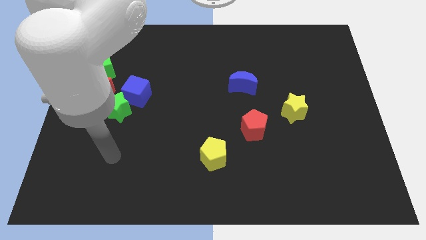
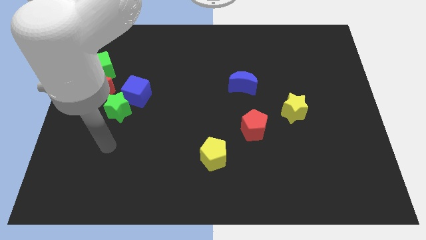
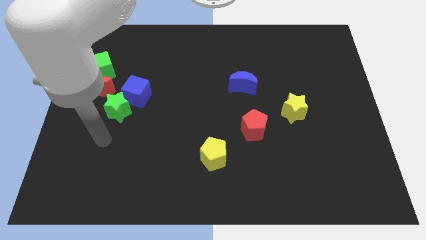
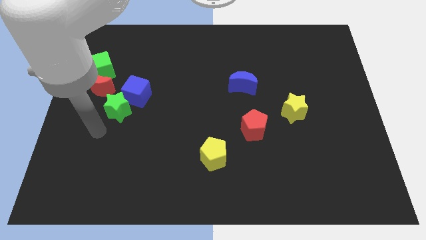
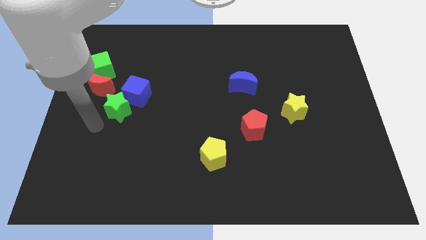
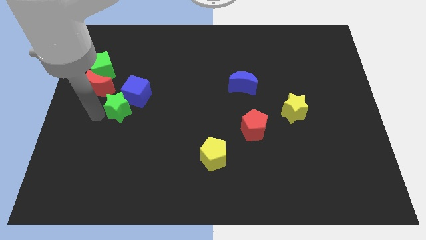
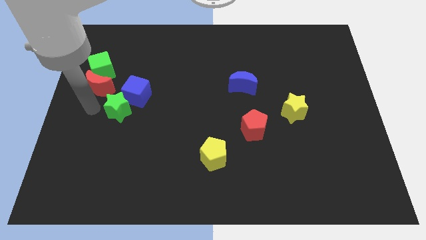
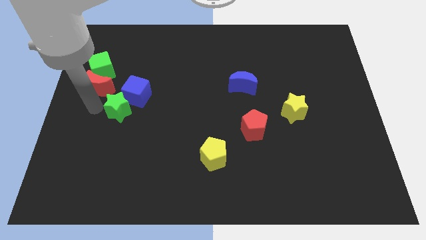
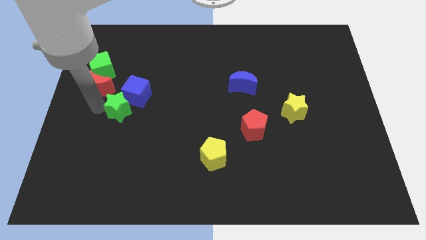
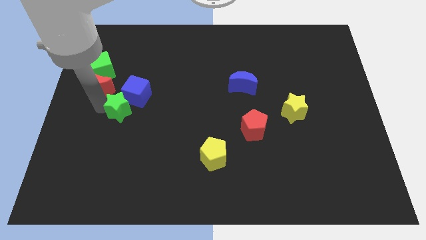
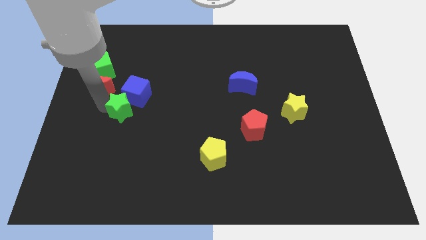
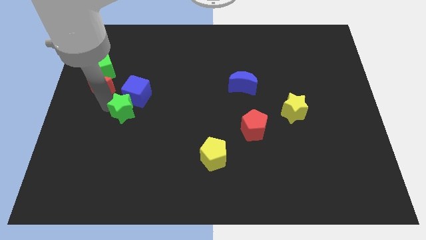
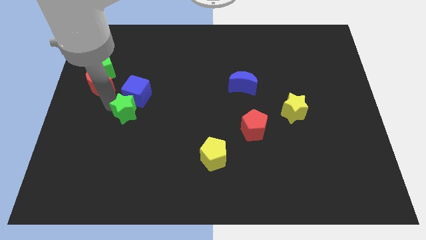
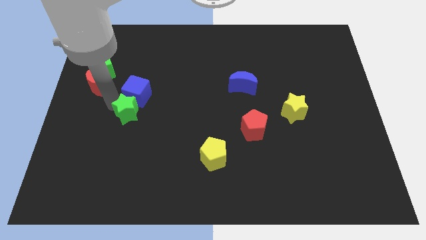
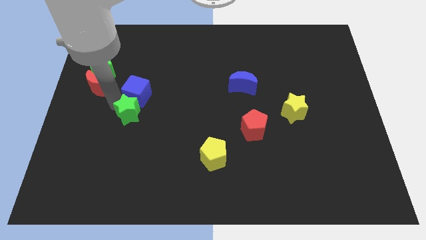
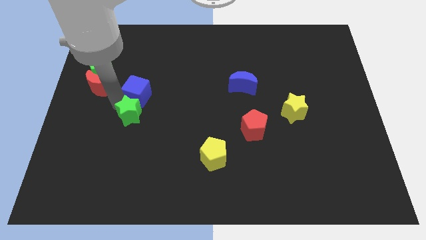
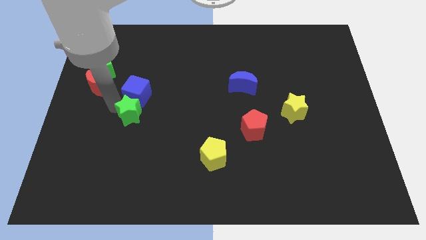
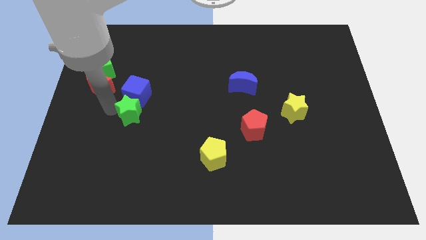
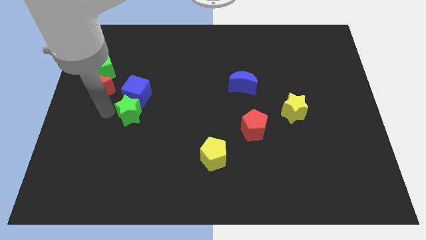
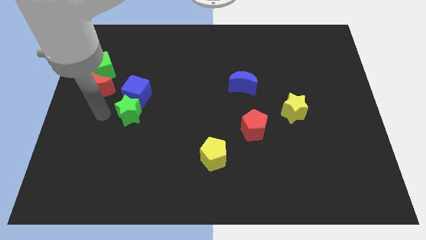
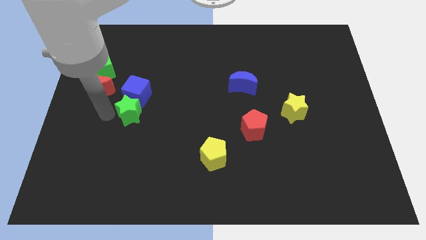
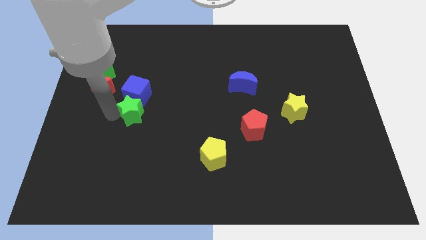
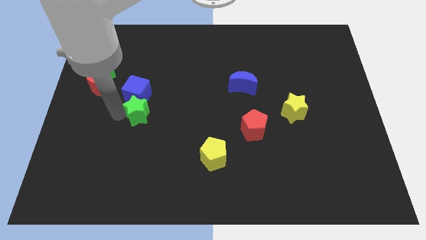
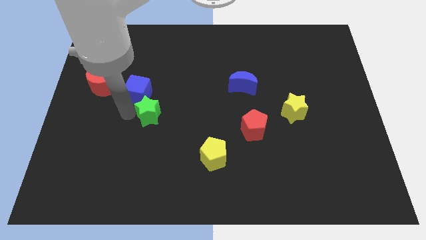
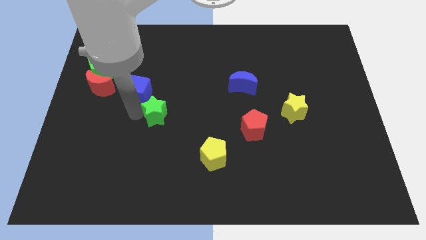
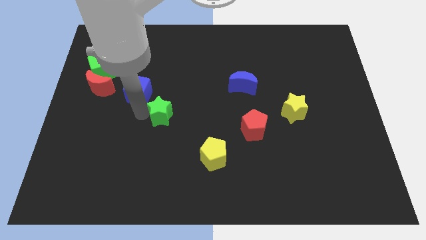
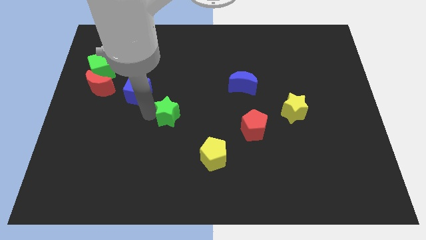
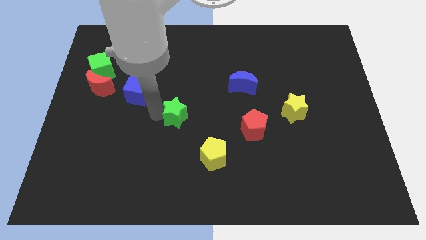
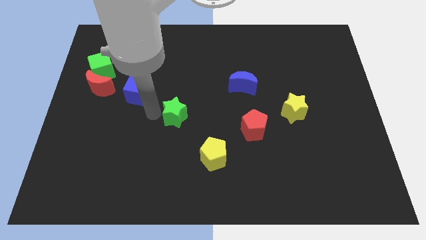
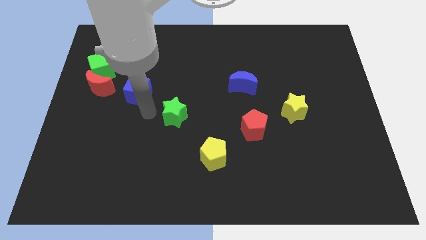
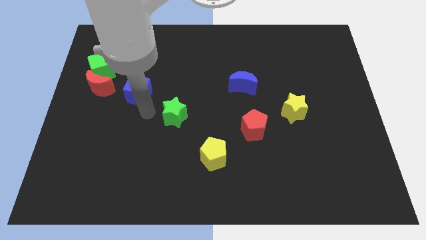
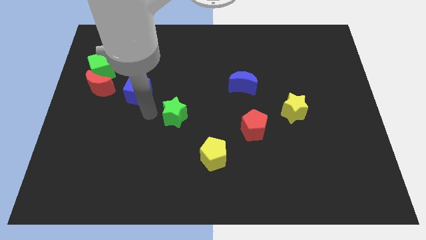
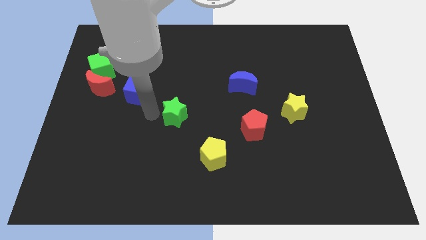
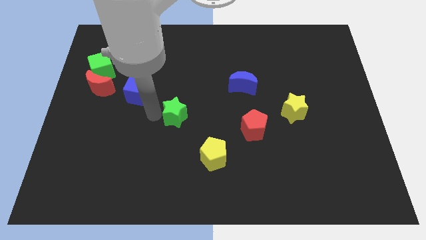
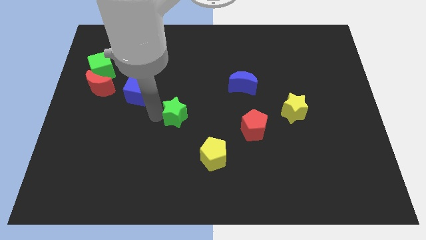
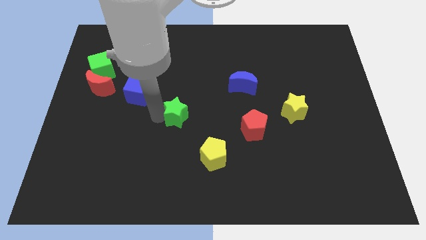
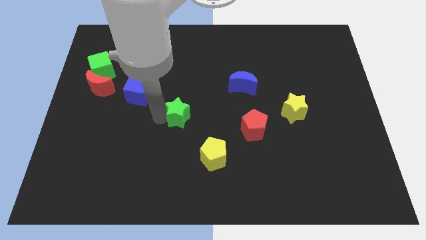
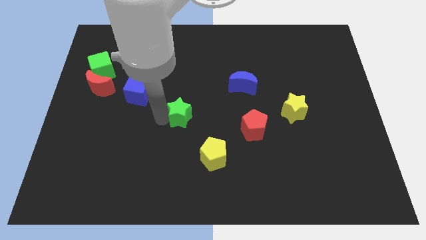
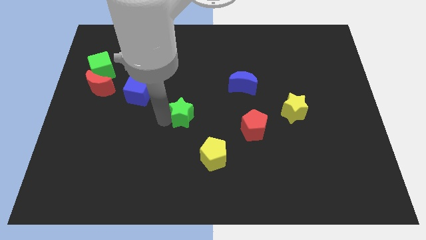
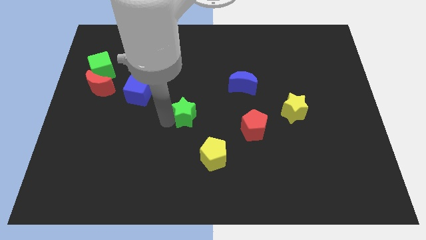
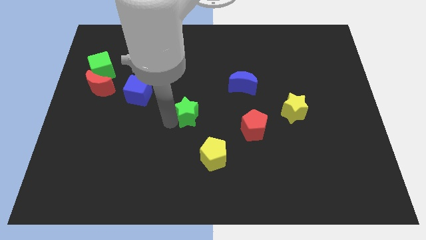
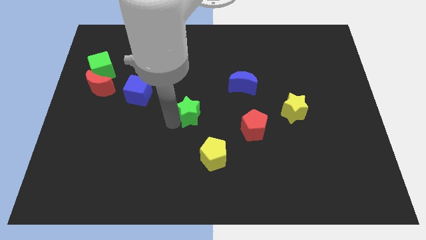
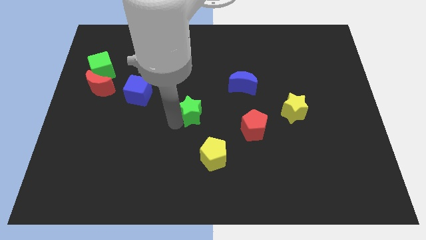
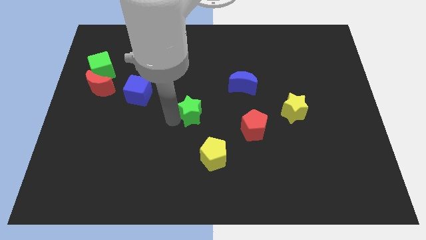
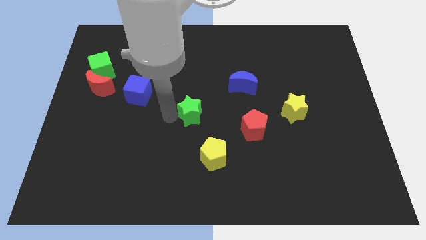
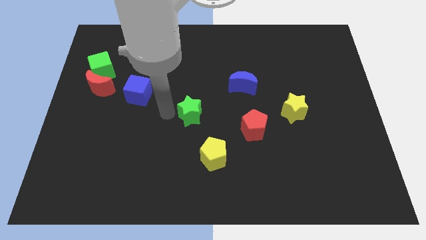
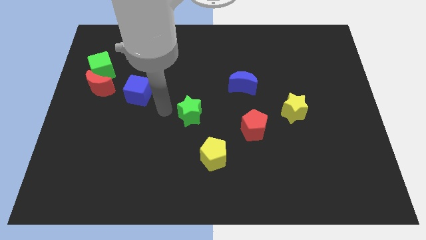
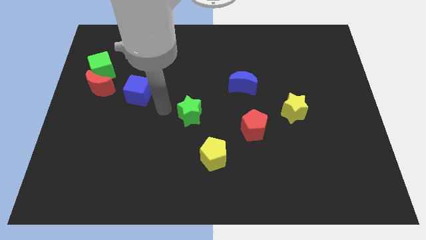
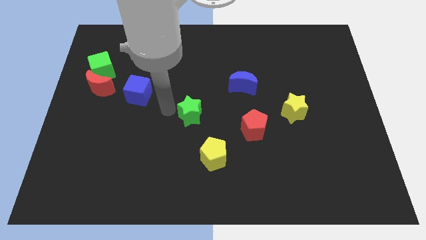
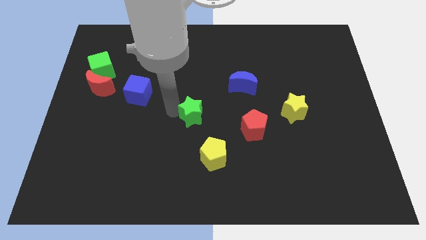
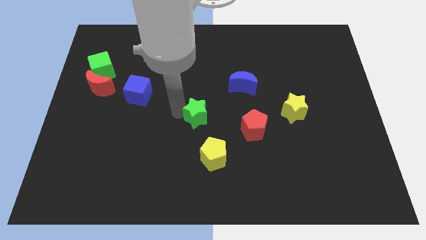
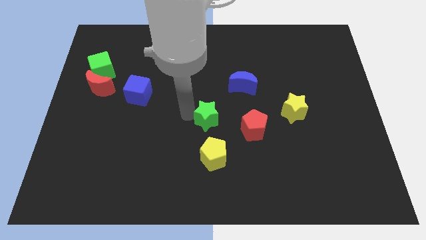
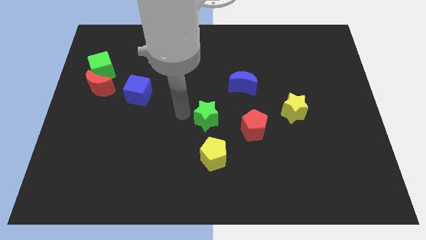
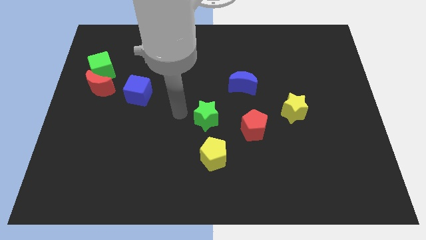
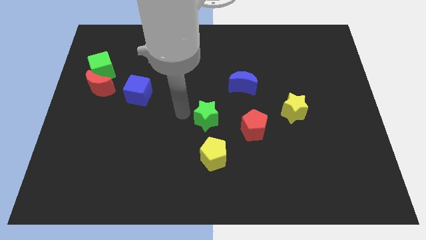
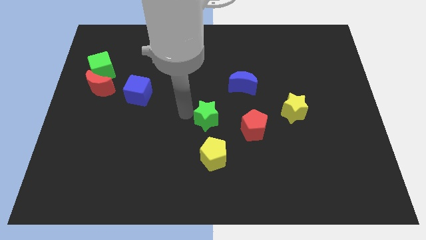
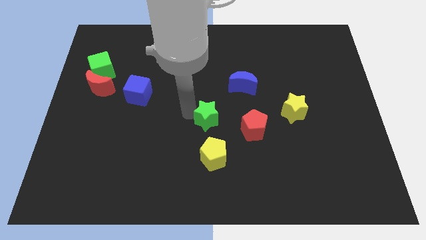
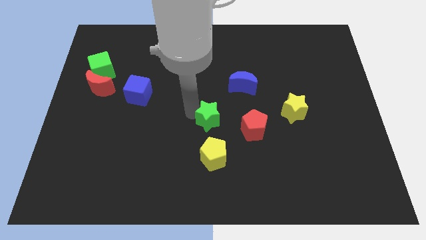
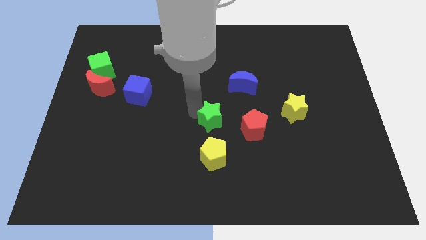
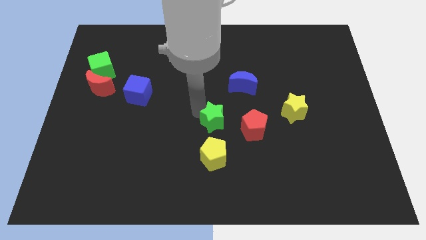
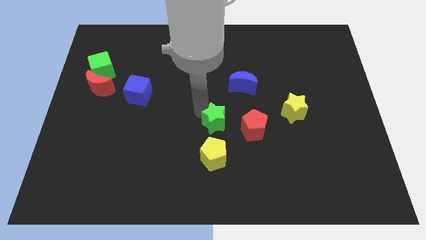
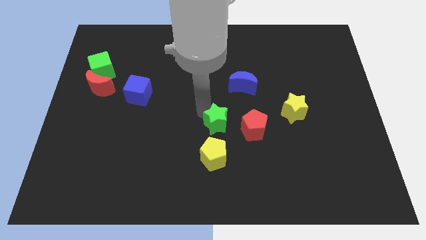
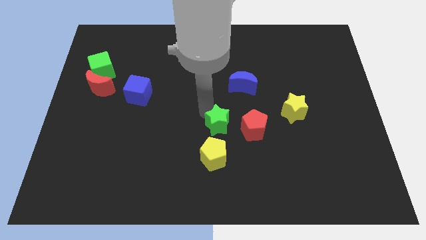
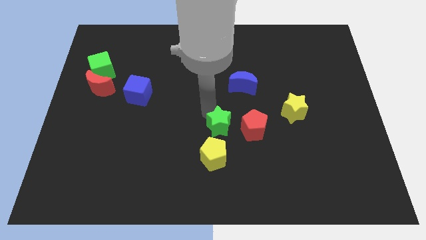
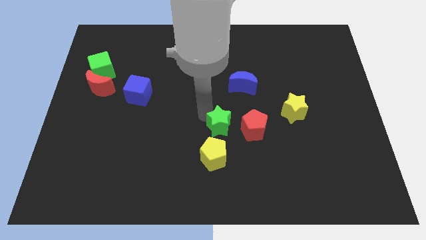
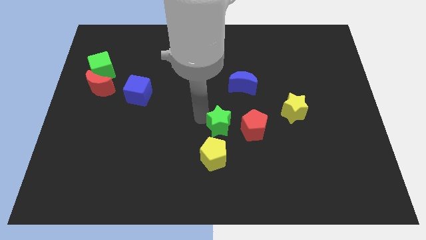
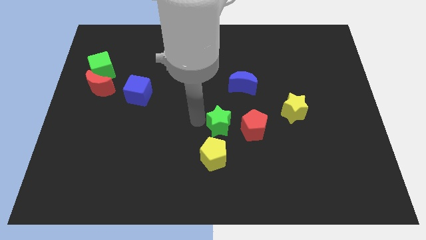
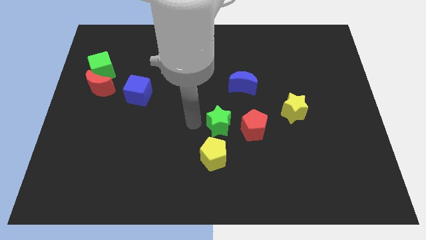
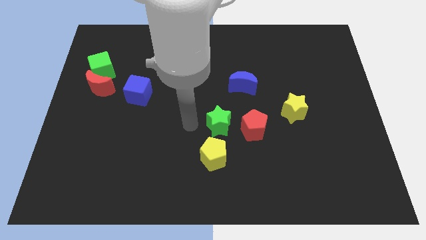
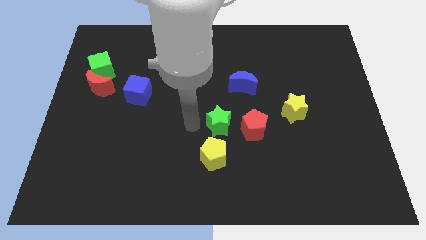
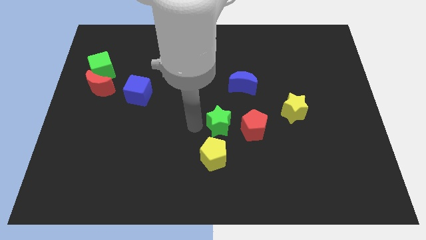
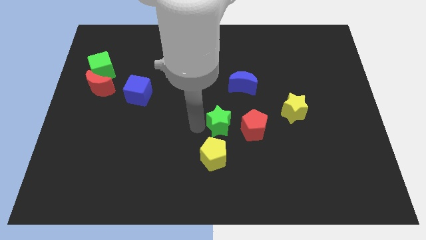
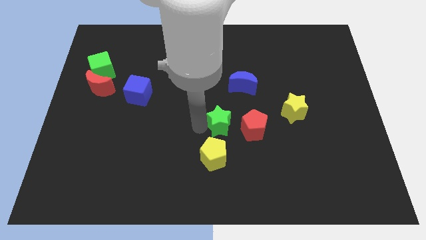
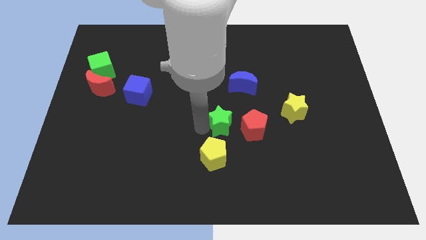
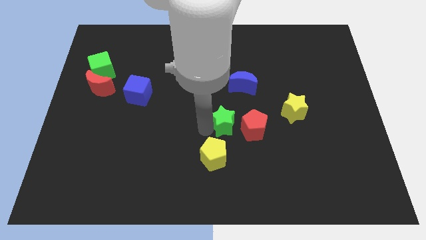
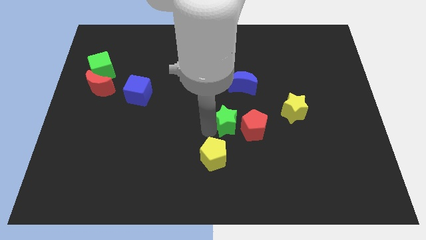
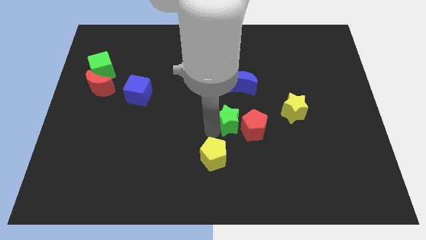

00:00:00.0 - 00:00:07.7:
slide the green star towards the red pentagon

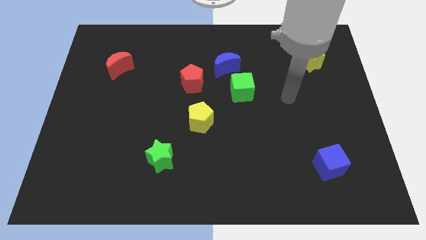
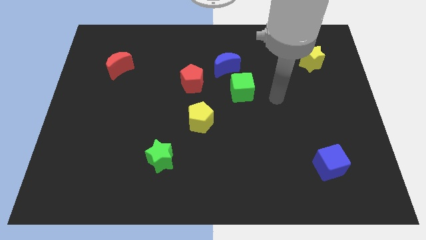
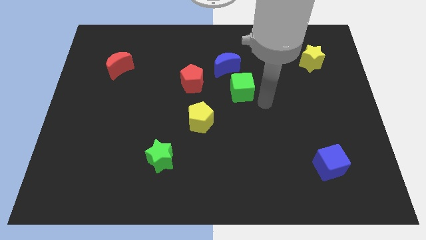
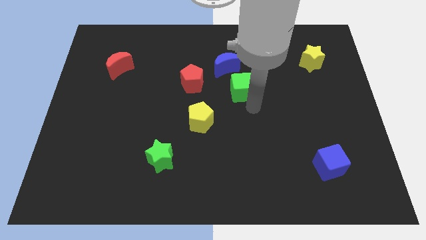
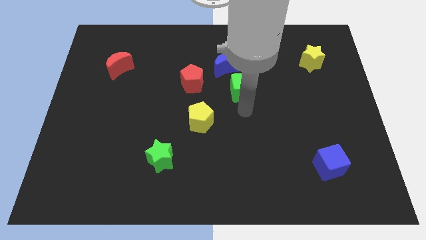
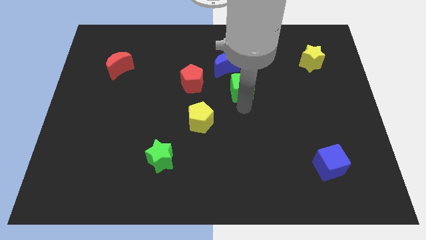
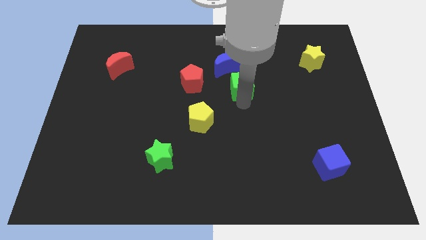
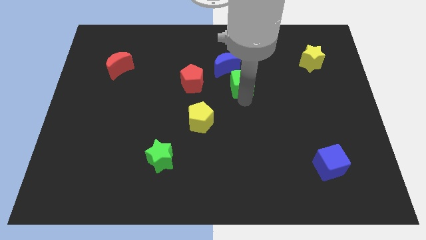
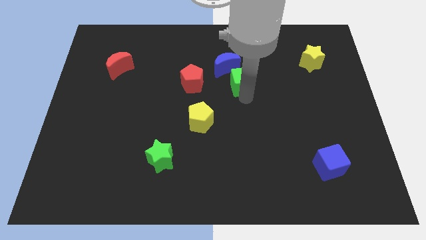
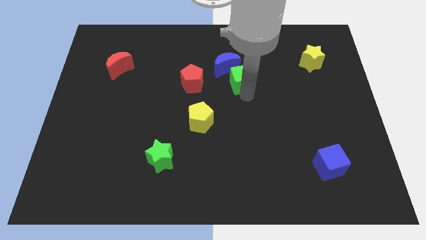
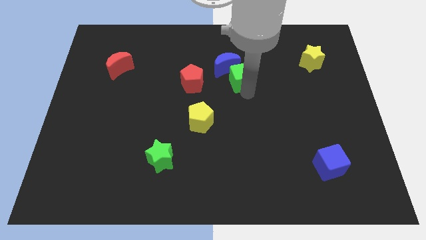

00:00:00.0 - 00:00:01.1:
push the green cube towards the blue moon
